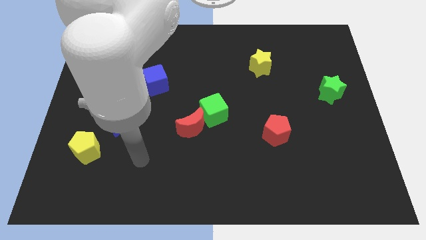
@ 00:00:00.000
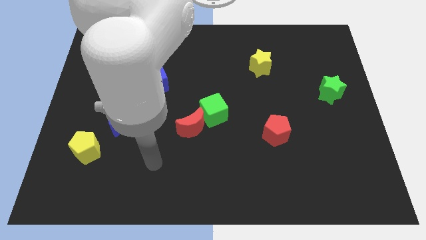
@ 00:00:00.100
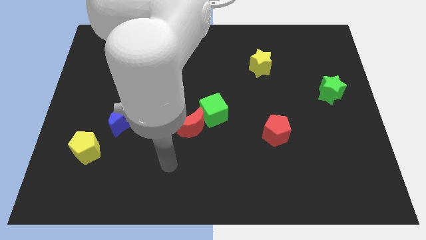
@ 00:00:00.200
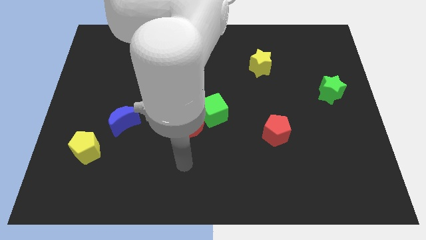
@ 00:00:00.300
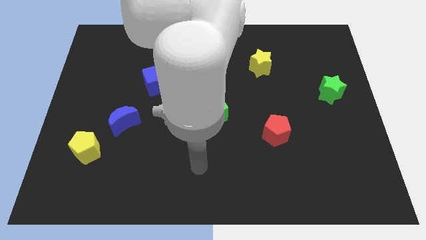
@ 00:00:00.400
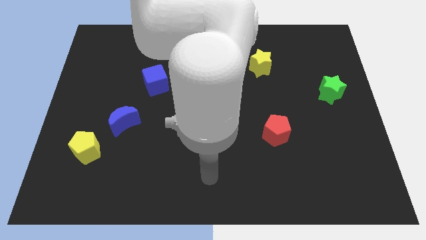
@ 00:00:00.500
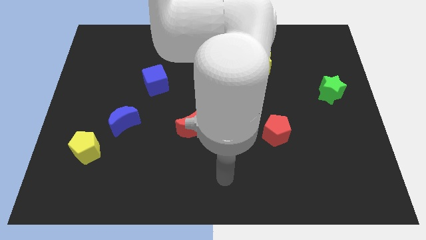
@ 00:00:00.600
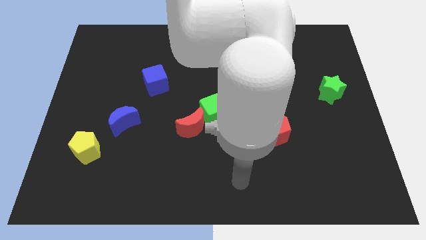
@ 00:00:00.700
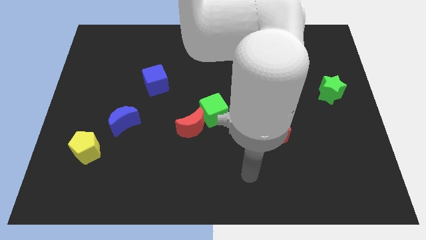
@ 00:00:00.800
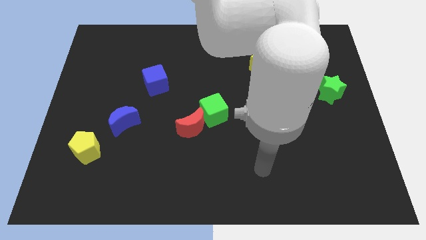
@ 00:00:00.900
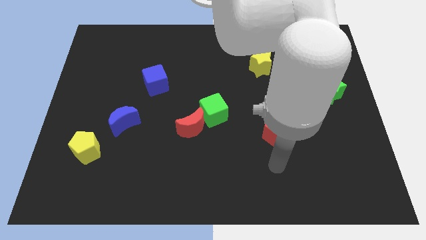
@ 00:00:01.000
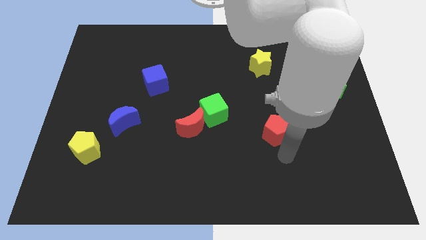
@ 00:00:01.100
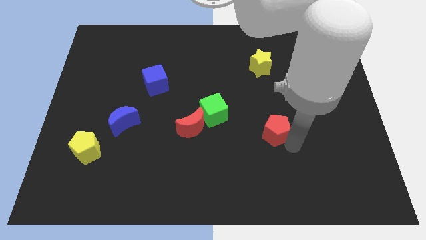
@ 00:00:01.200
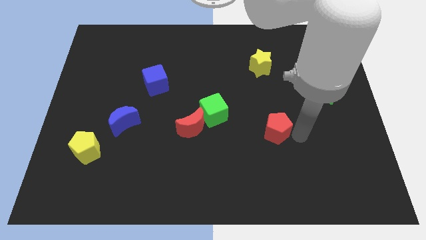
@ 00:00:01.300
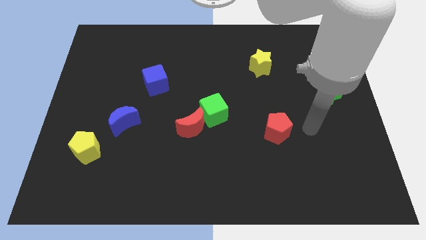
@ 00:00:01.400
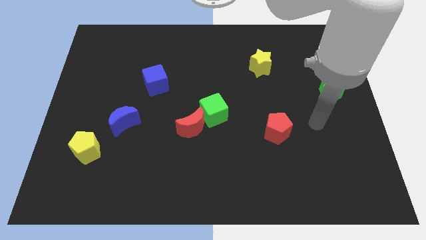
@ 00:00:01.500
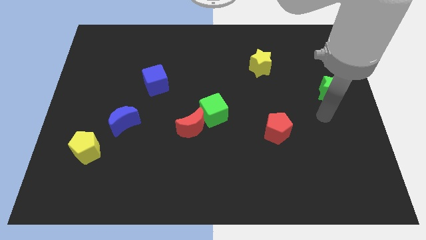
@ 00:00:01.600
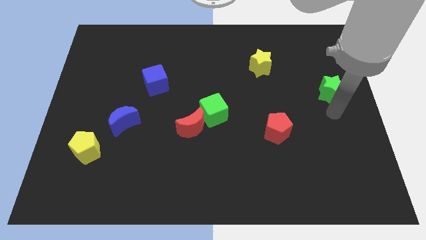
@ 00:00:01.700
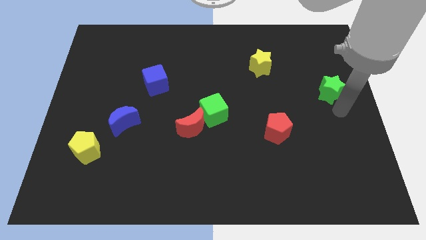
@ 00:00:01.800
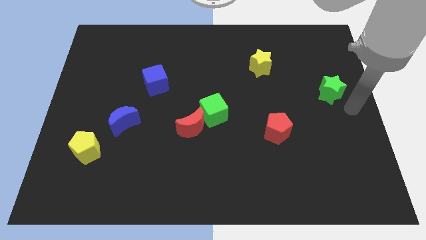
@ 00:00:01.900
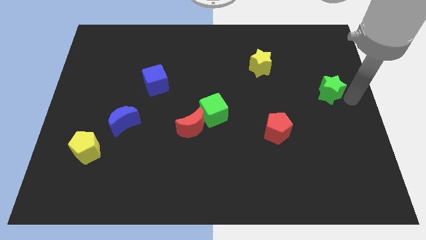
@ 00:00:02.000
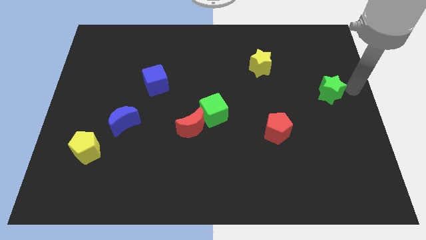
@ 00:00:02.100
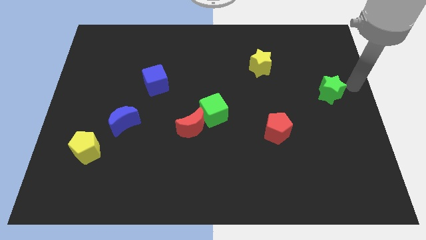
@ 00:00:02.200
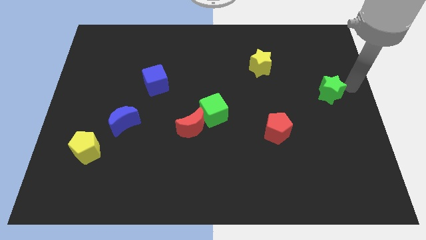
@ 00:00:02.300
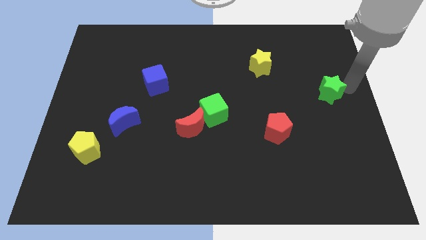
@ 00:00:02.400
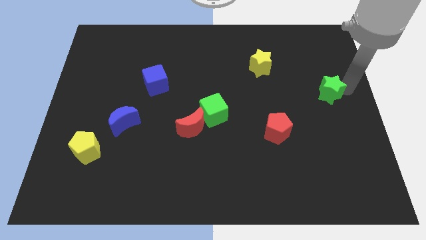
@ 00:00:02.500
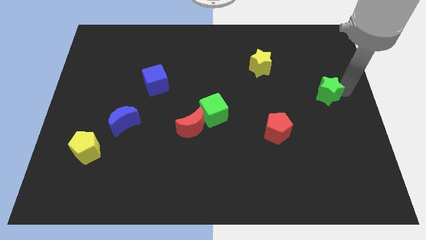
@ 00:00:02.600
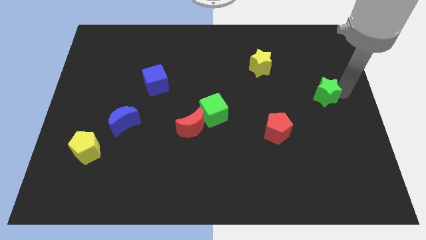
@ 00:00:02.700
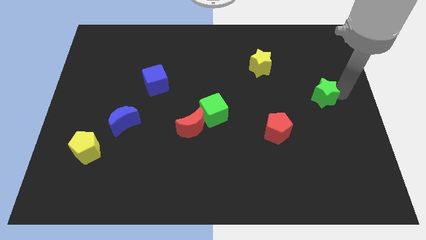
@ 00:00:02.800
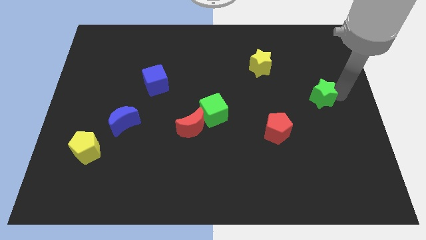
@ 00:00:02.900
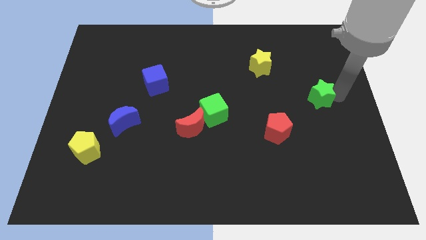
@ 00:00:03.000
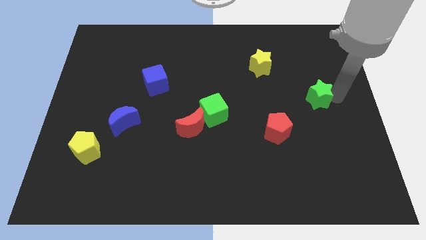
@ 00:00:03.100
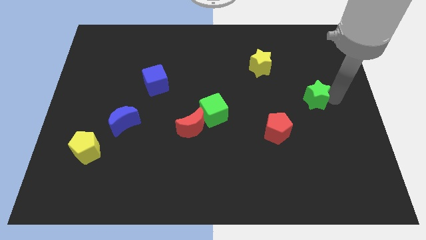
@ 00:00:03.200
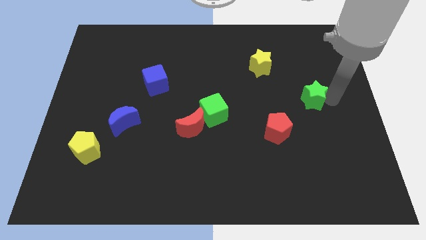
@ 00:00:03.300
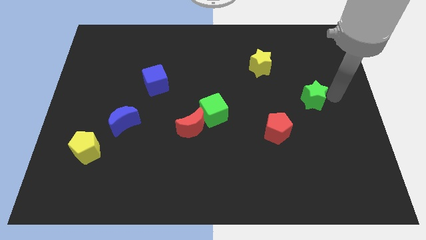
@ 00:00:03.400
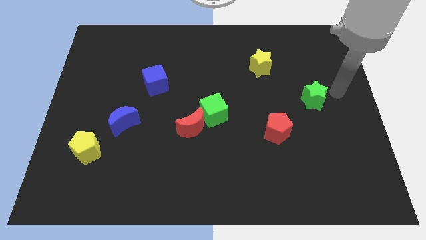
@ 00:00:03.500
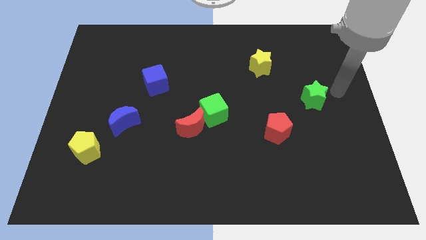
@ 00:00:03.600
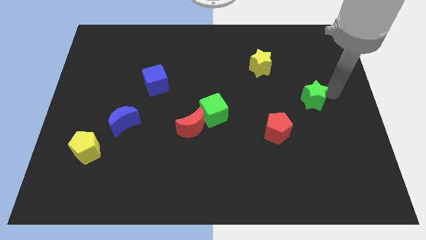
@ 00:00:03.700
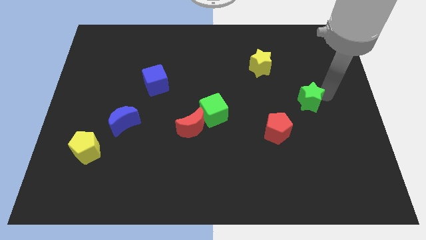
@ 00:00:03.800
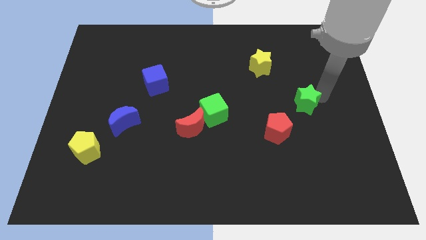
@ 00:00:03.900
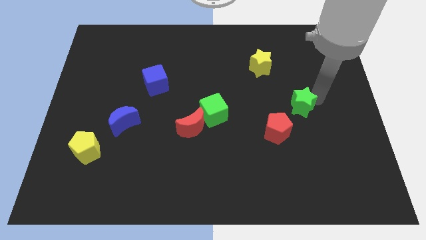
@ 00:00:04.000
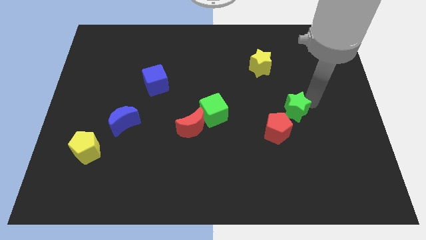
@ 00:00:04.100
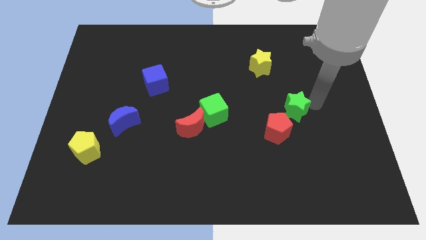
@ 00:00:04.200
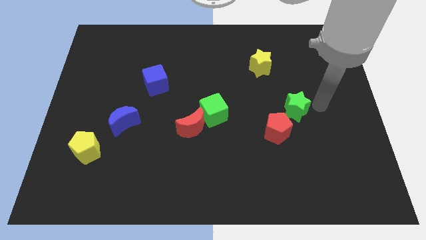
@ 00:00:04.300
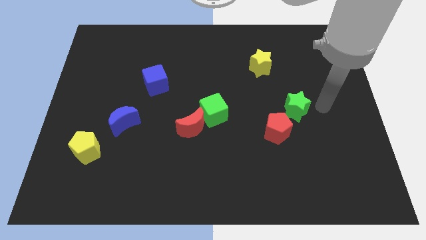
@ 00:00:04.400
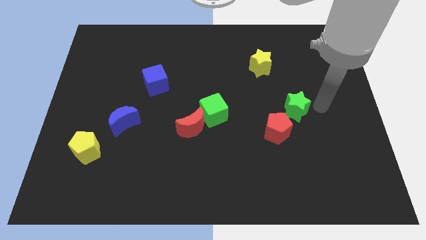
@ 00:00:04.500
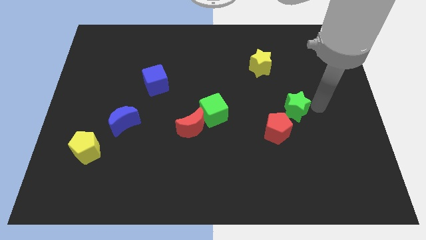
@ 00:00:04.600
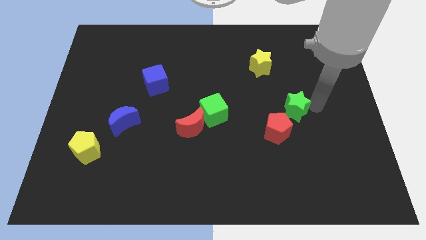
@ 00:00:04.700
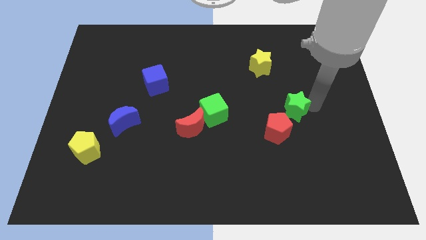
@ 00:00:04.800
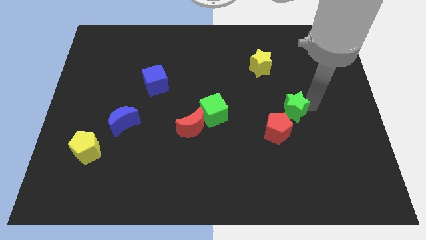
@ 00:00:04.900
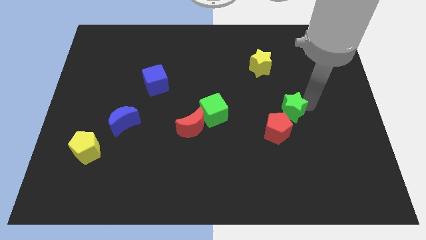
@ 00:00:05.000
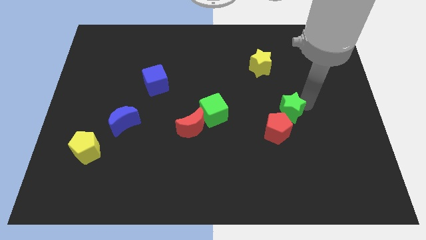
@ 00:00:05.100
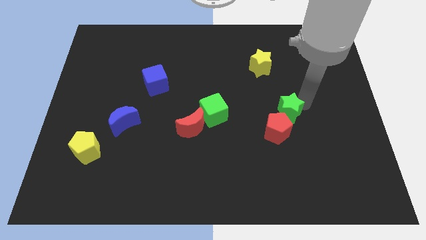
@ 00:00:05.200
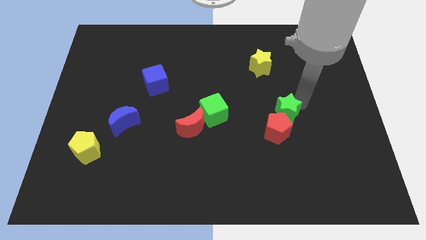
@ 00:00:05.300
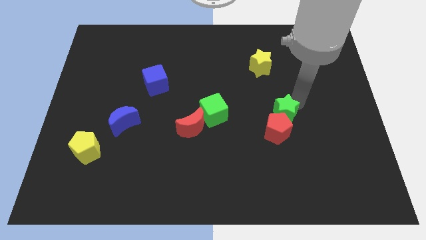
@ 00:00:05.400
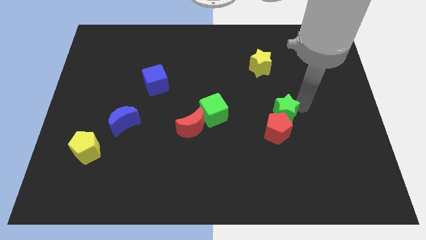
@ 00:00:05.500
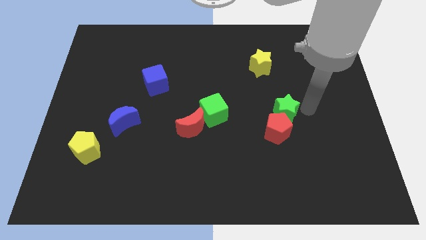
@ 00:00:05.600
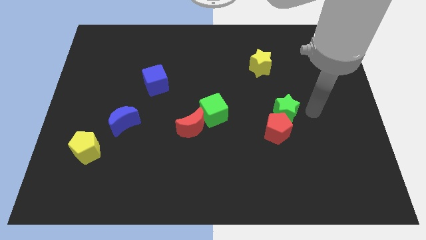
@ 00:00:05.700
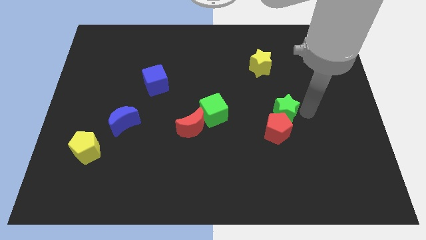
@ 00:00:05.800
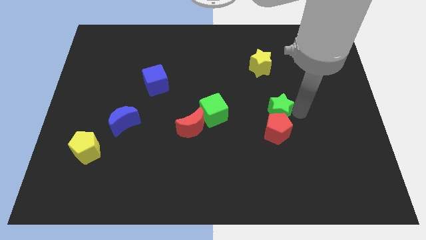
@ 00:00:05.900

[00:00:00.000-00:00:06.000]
push the green star to the right of the green cube

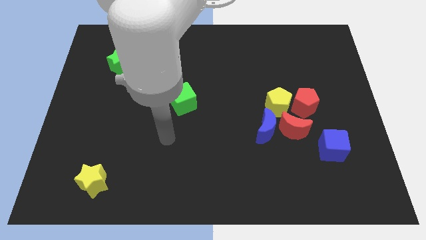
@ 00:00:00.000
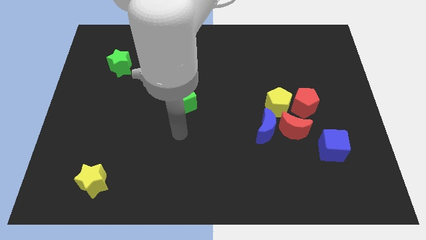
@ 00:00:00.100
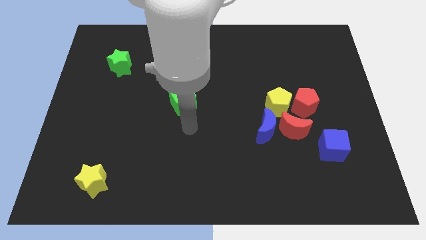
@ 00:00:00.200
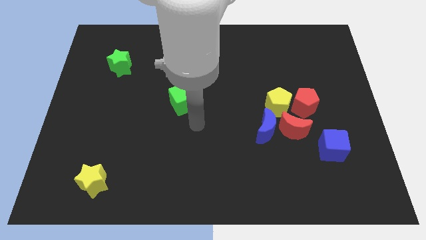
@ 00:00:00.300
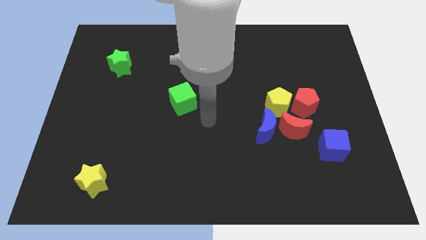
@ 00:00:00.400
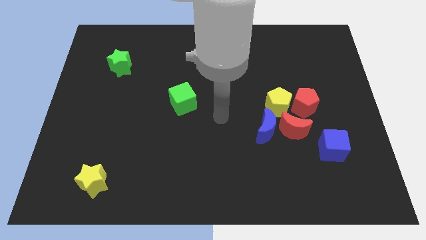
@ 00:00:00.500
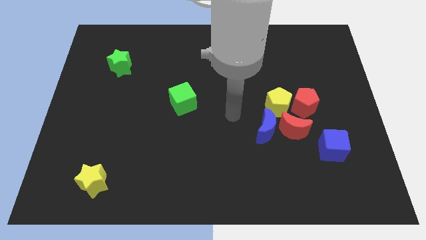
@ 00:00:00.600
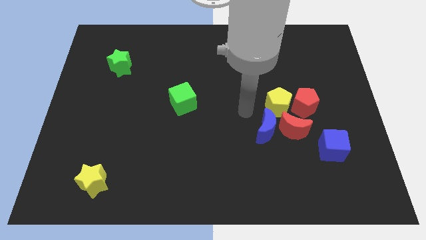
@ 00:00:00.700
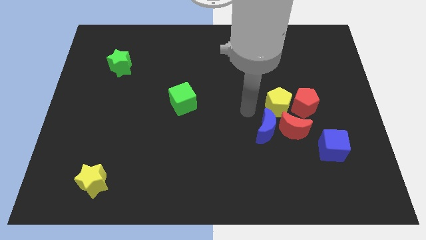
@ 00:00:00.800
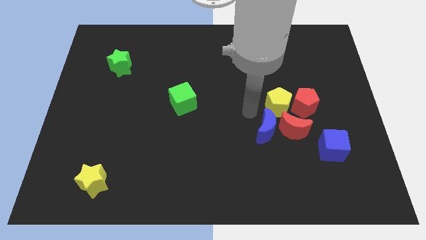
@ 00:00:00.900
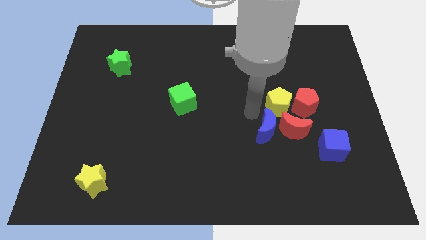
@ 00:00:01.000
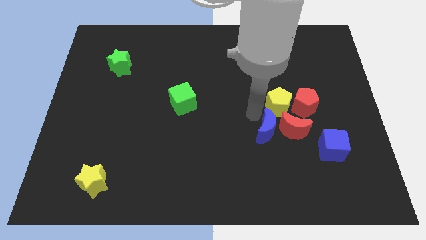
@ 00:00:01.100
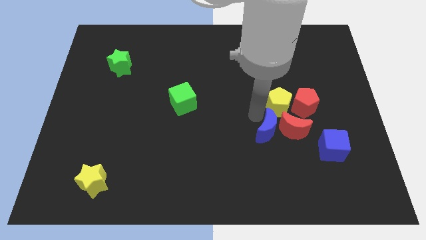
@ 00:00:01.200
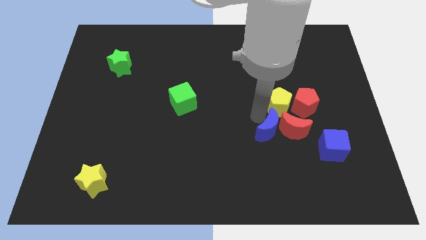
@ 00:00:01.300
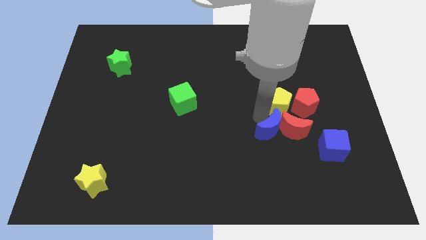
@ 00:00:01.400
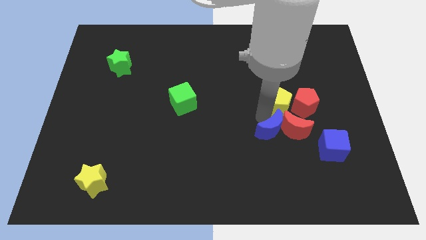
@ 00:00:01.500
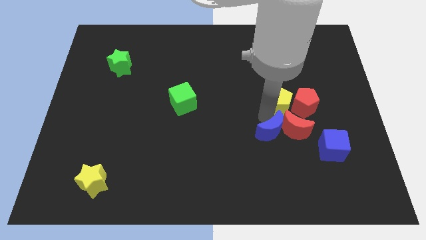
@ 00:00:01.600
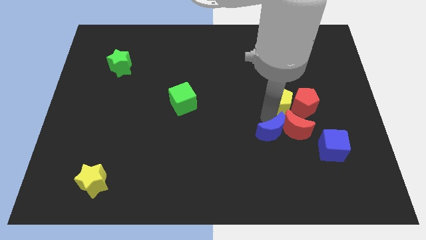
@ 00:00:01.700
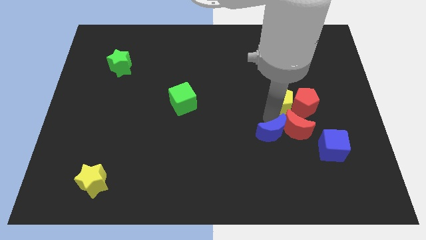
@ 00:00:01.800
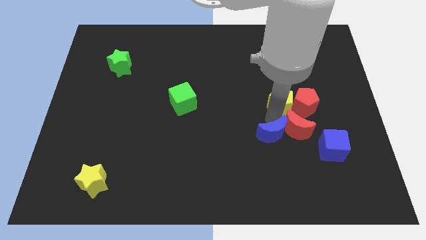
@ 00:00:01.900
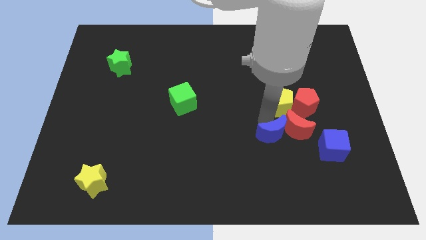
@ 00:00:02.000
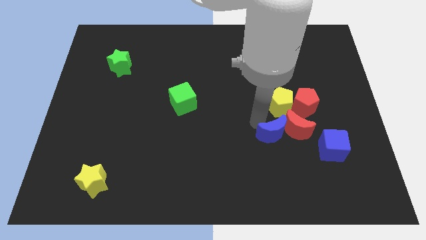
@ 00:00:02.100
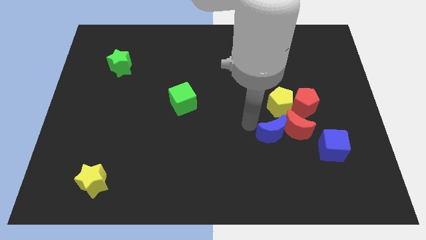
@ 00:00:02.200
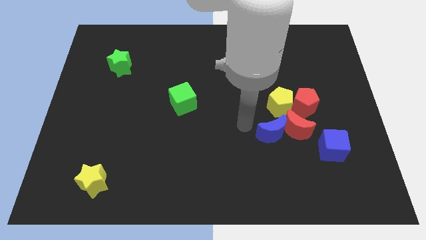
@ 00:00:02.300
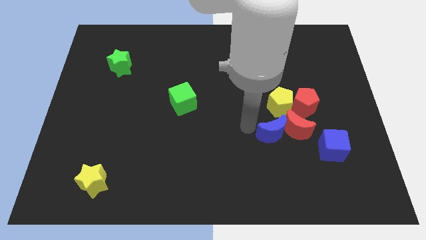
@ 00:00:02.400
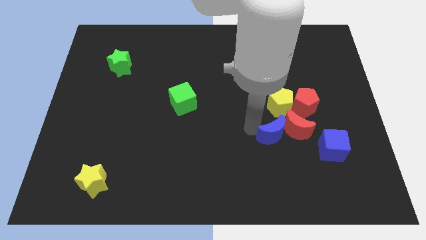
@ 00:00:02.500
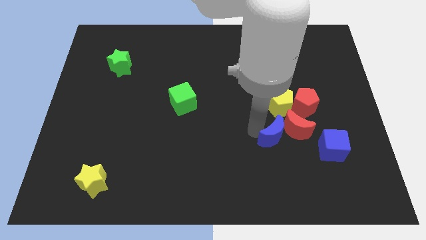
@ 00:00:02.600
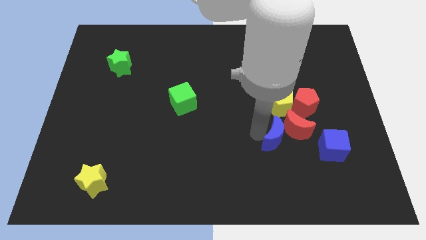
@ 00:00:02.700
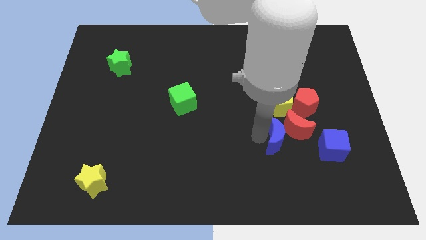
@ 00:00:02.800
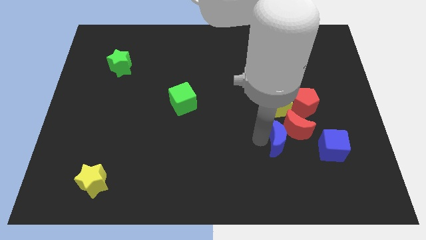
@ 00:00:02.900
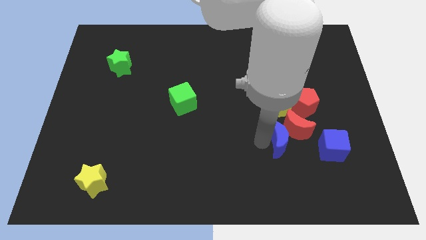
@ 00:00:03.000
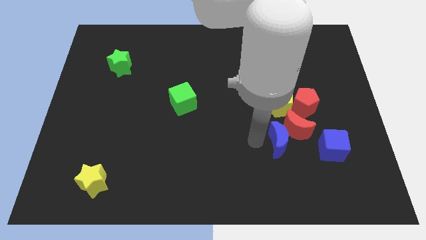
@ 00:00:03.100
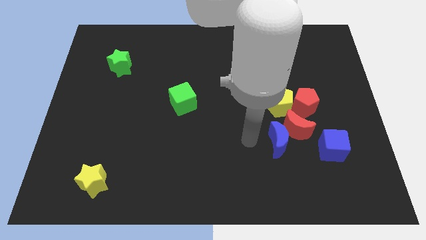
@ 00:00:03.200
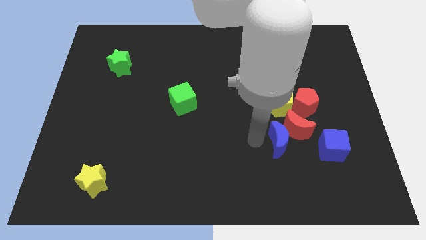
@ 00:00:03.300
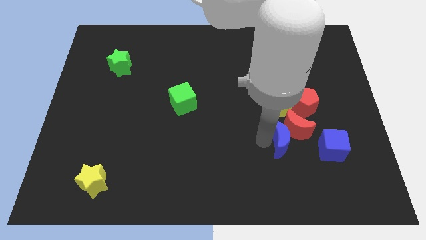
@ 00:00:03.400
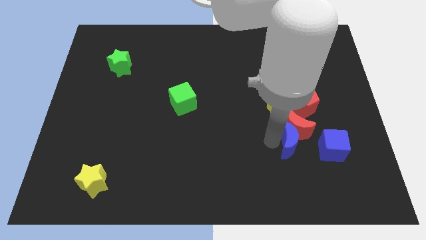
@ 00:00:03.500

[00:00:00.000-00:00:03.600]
move the blue moon below the red pentagon
